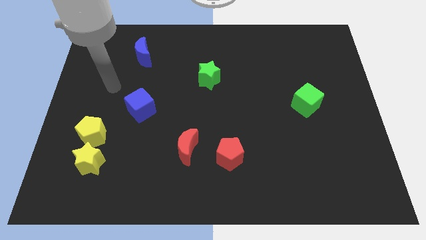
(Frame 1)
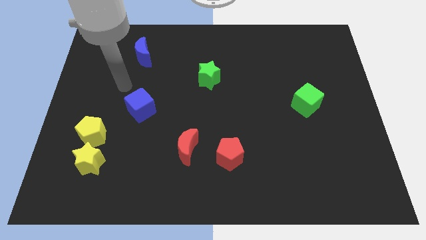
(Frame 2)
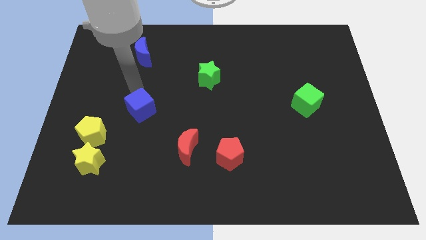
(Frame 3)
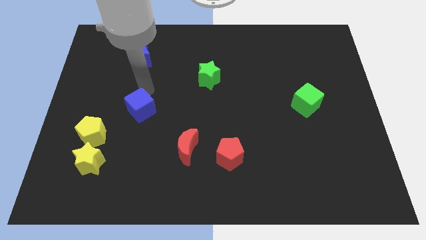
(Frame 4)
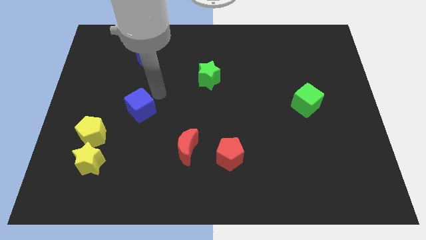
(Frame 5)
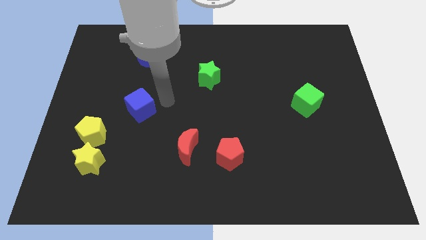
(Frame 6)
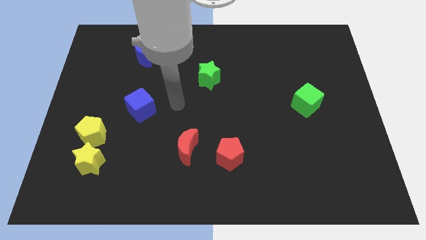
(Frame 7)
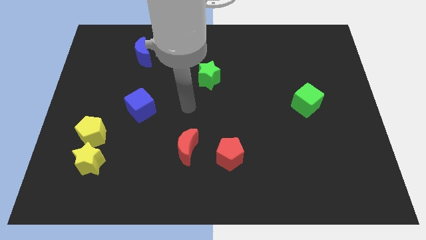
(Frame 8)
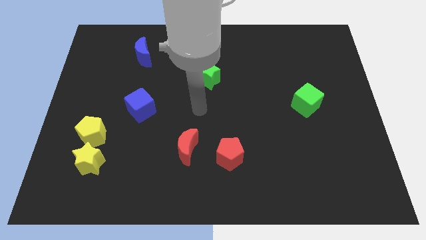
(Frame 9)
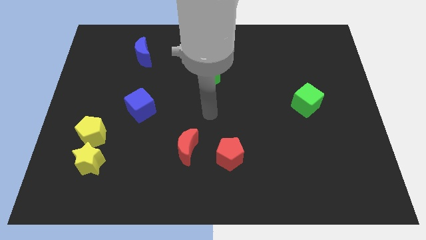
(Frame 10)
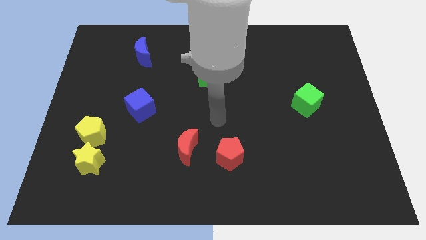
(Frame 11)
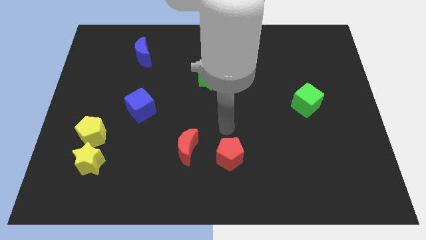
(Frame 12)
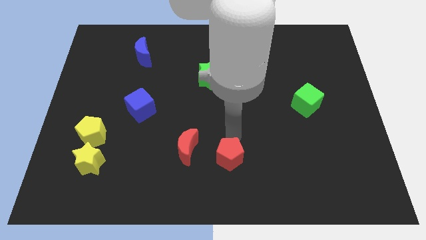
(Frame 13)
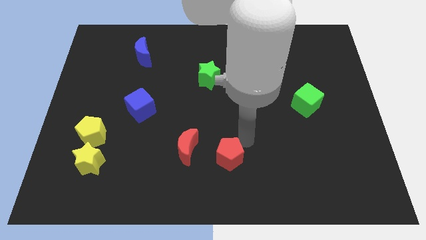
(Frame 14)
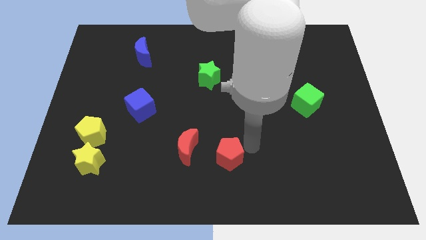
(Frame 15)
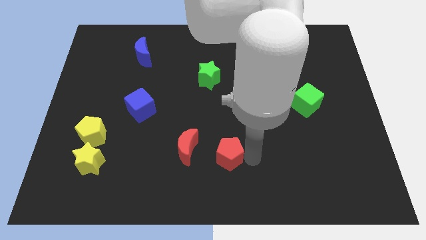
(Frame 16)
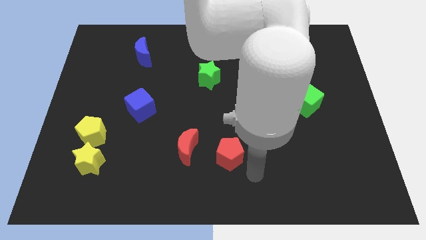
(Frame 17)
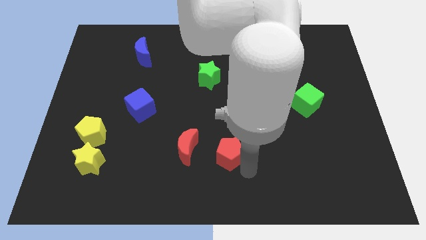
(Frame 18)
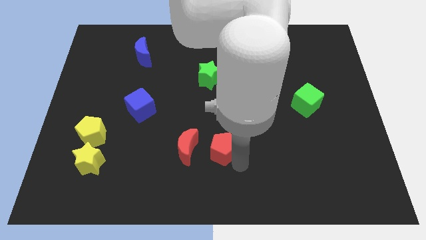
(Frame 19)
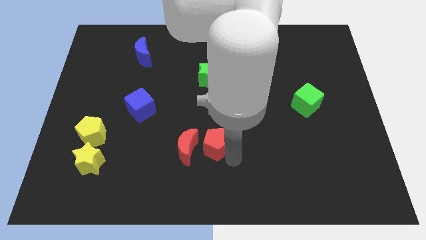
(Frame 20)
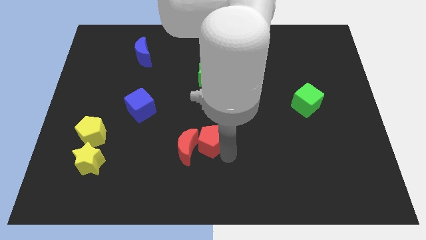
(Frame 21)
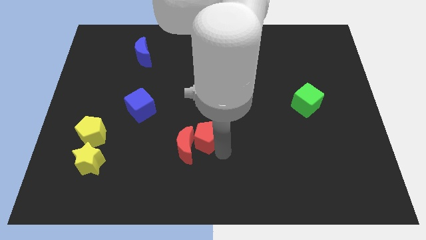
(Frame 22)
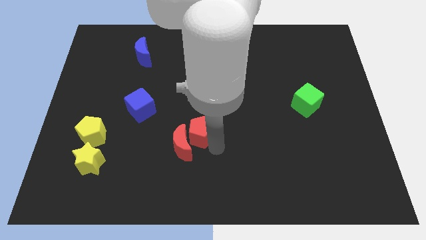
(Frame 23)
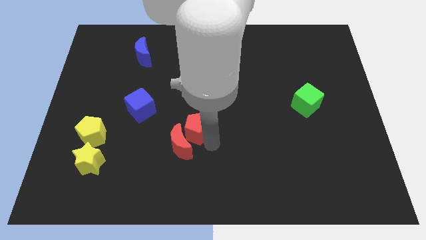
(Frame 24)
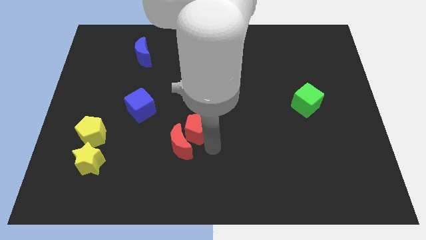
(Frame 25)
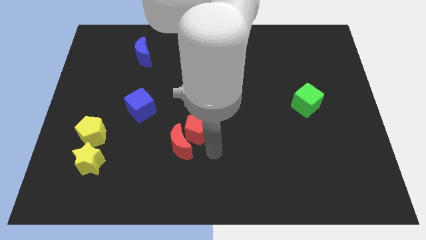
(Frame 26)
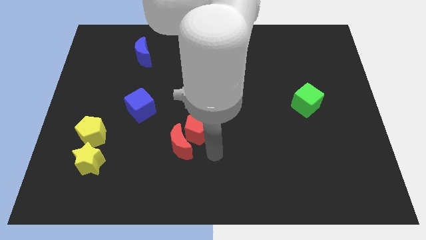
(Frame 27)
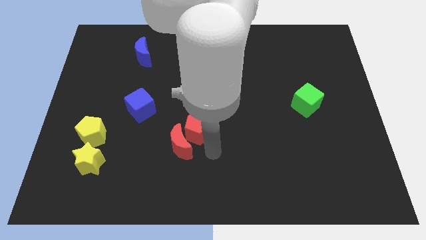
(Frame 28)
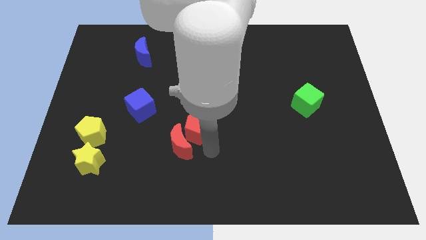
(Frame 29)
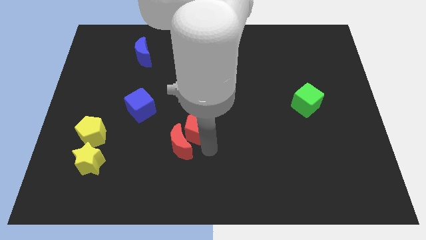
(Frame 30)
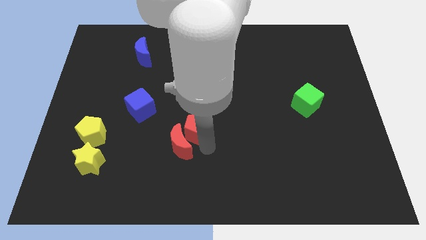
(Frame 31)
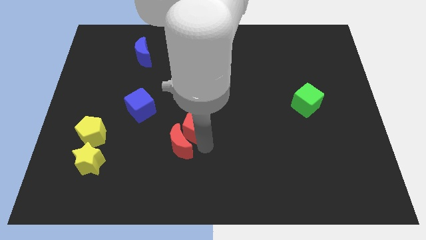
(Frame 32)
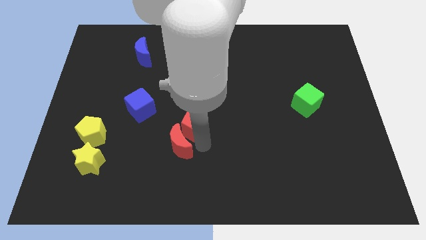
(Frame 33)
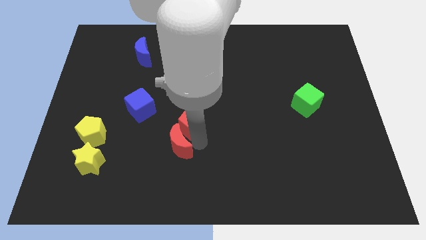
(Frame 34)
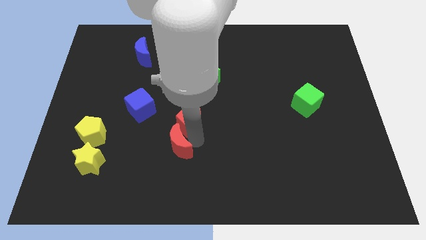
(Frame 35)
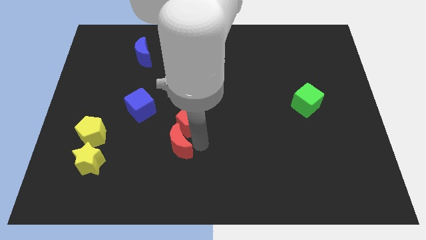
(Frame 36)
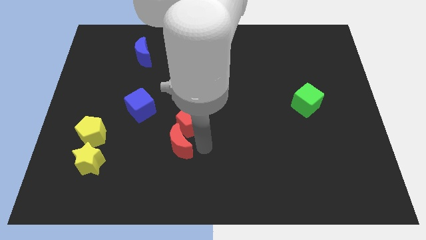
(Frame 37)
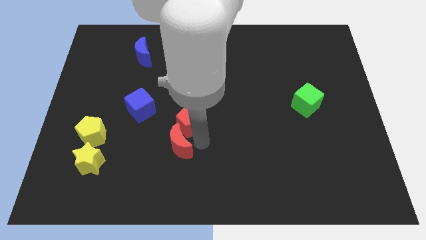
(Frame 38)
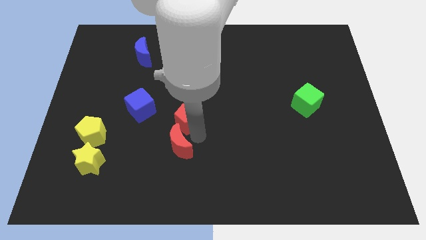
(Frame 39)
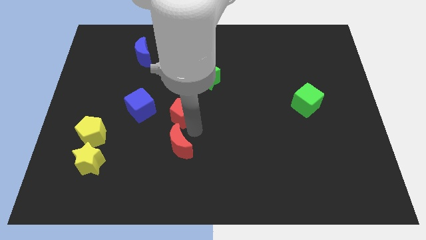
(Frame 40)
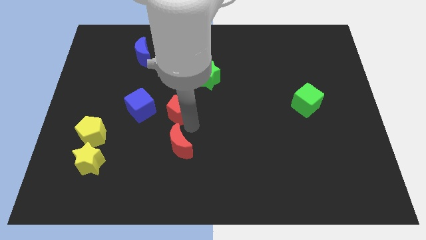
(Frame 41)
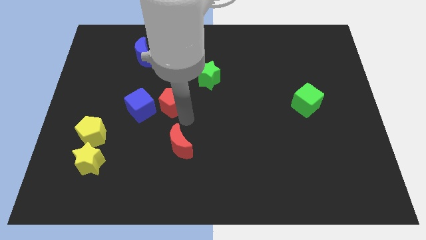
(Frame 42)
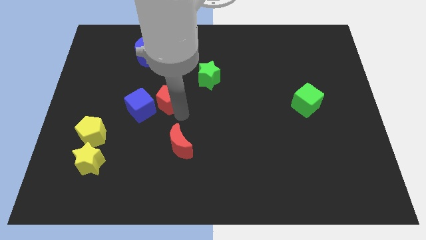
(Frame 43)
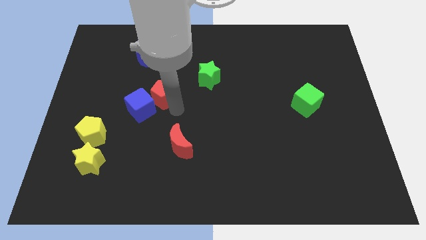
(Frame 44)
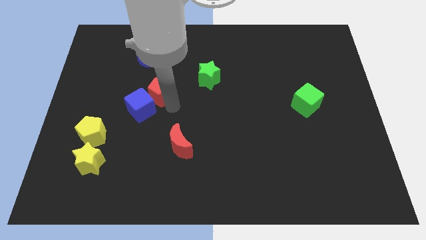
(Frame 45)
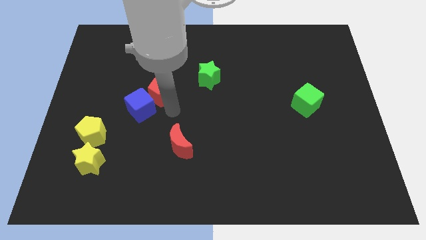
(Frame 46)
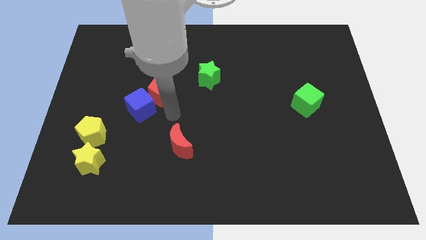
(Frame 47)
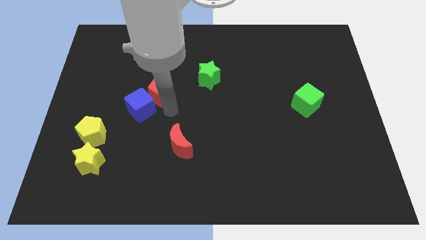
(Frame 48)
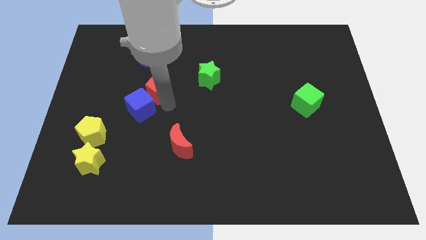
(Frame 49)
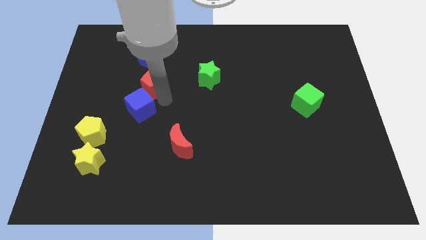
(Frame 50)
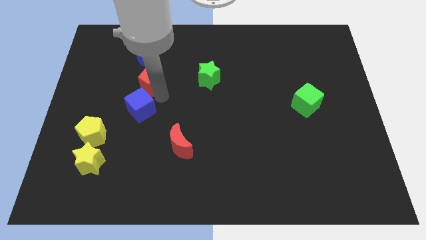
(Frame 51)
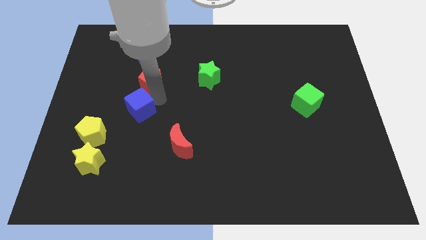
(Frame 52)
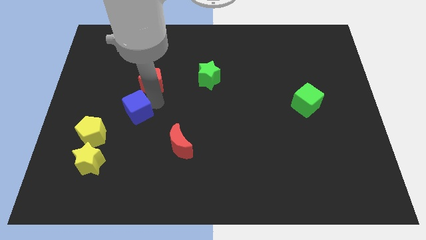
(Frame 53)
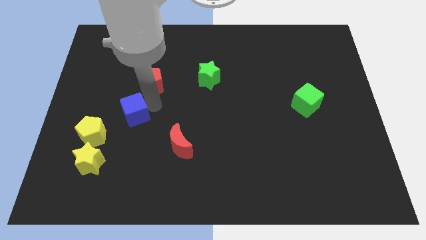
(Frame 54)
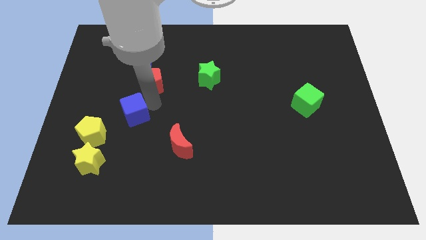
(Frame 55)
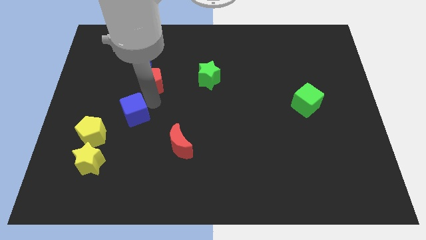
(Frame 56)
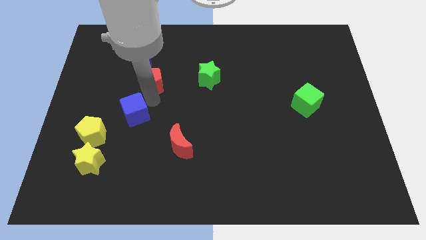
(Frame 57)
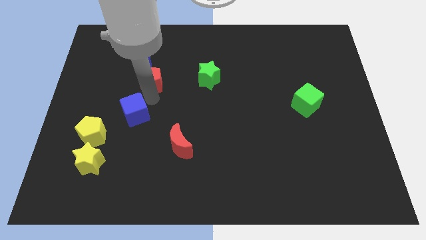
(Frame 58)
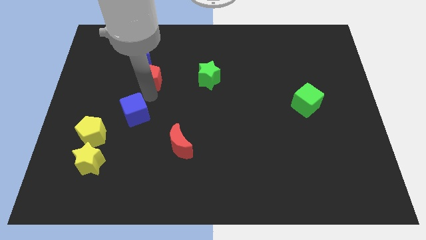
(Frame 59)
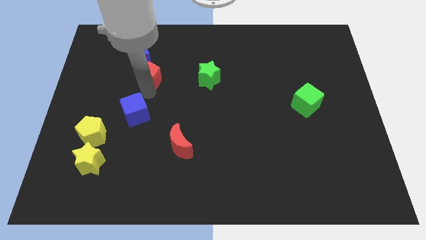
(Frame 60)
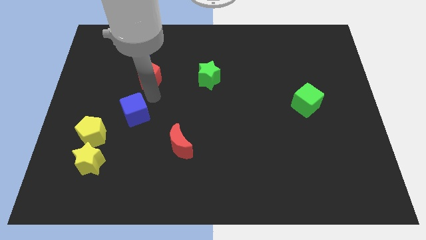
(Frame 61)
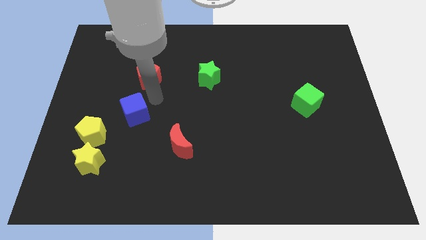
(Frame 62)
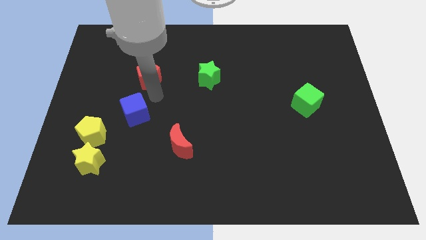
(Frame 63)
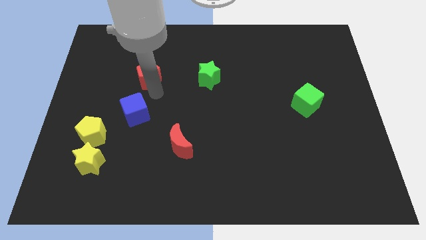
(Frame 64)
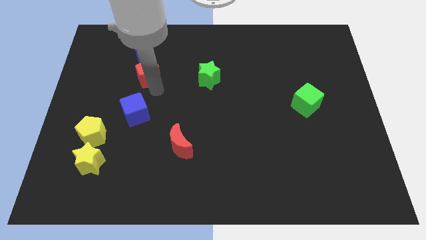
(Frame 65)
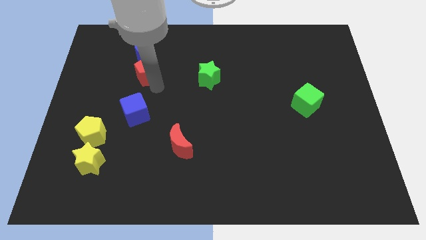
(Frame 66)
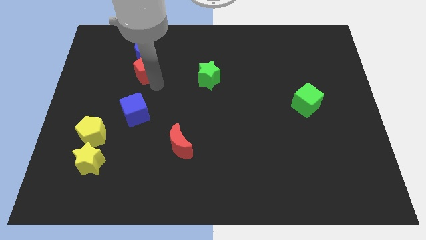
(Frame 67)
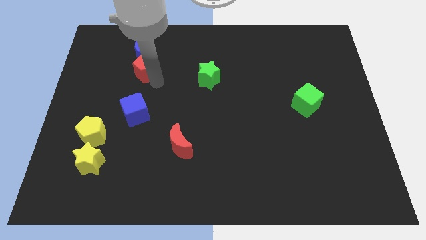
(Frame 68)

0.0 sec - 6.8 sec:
push the red pentagon next to the blue moon
